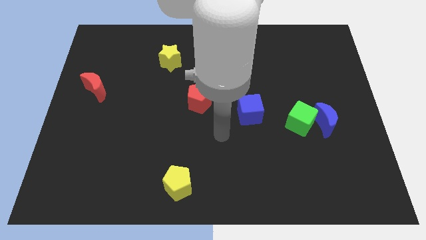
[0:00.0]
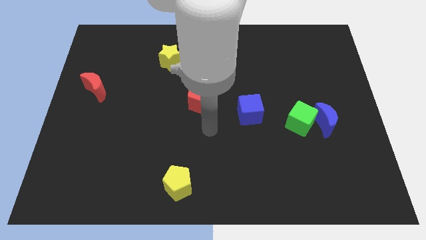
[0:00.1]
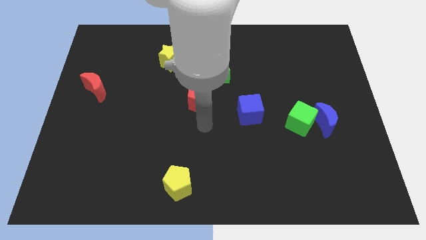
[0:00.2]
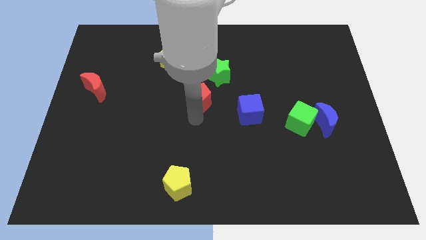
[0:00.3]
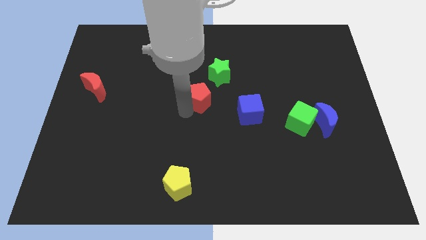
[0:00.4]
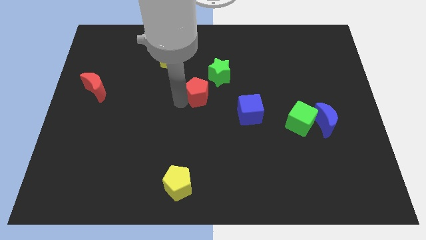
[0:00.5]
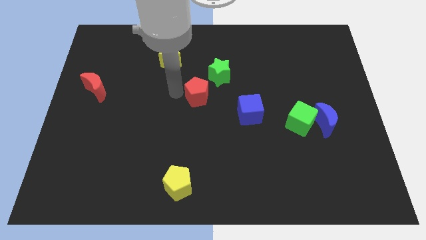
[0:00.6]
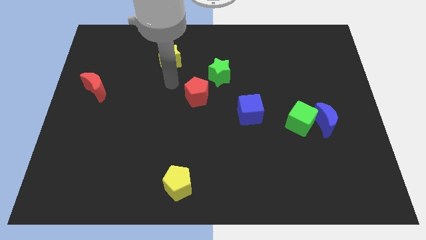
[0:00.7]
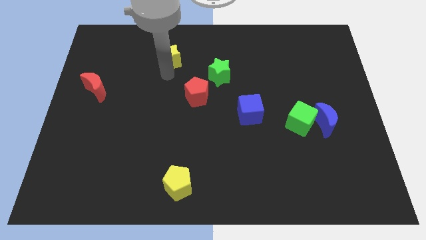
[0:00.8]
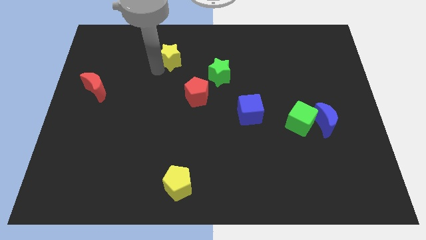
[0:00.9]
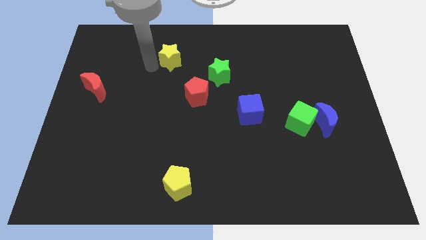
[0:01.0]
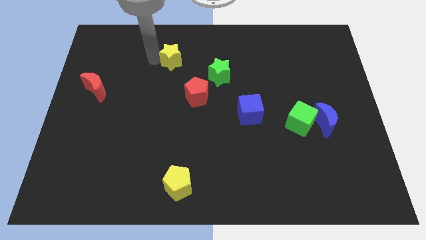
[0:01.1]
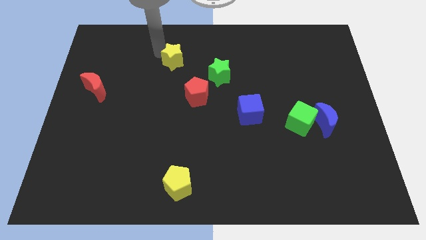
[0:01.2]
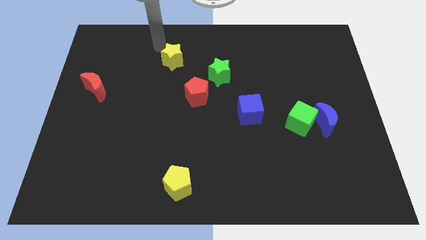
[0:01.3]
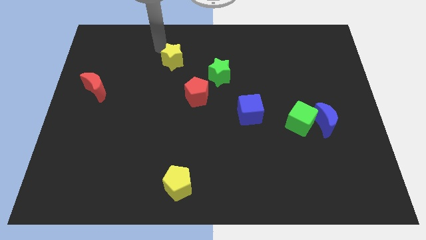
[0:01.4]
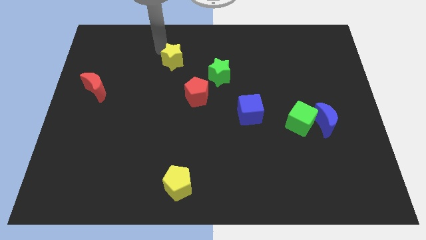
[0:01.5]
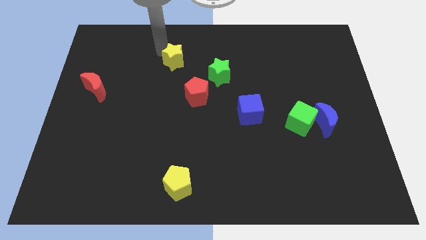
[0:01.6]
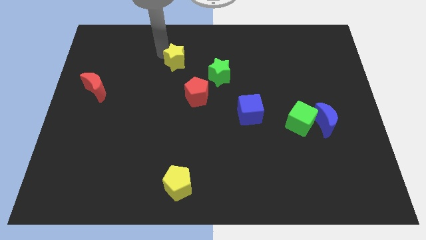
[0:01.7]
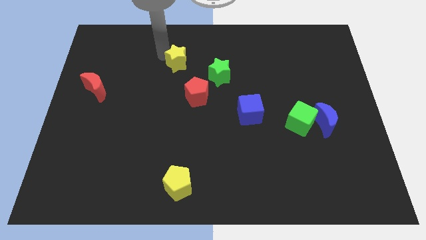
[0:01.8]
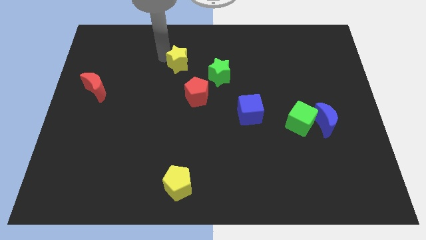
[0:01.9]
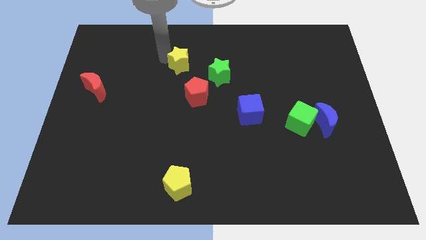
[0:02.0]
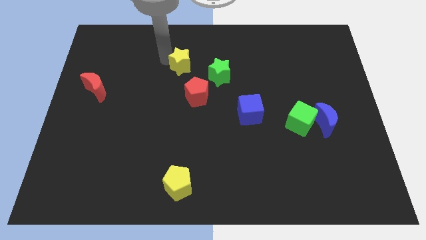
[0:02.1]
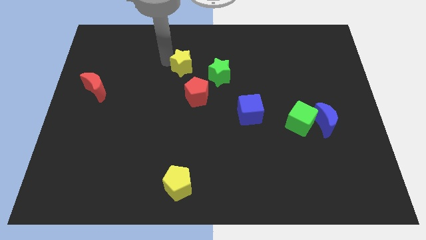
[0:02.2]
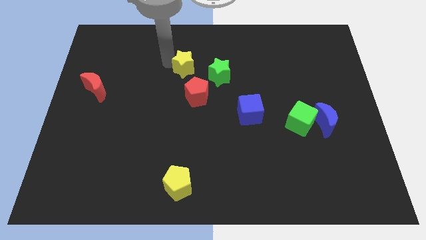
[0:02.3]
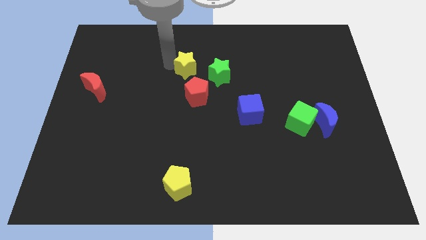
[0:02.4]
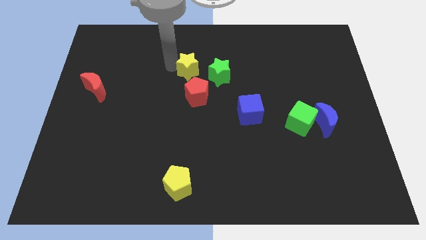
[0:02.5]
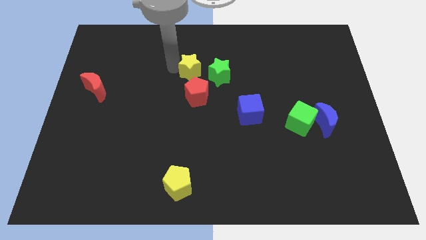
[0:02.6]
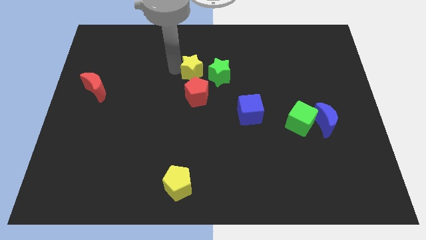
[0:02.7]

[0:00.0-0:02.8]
slightly push the yellow star downwards and then right

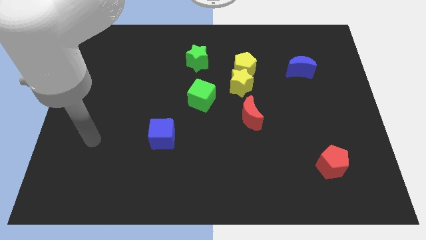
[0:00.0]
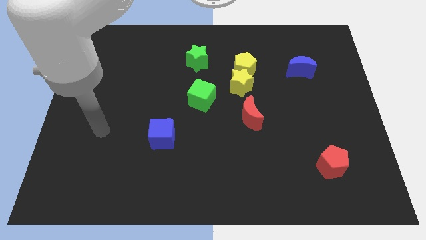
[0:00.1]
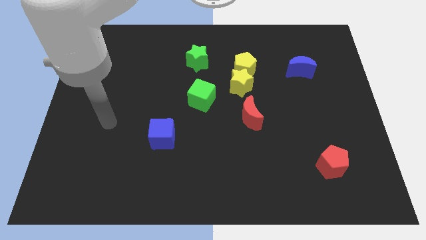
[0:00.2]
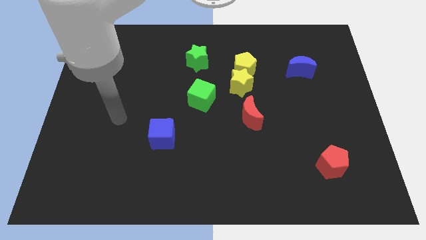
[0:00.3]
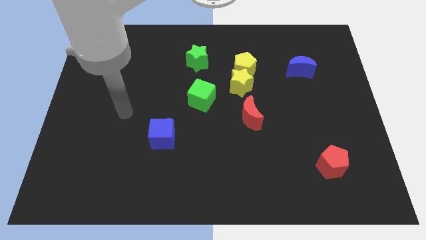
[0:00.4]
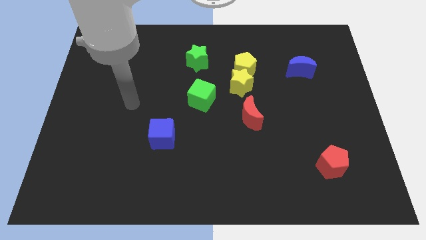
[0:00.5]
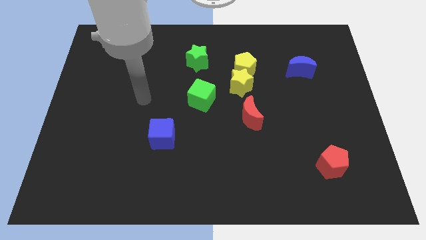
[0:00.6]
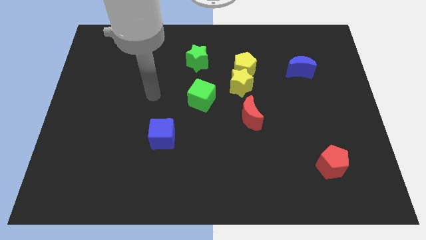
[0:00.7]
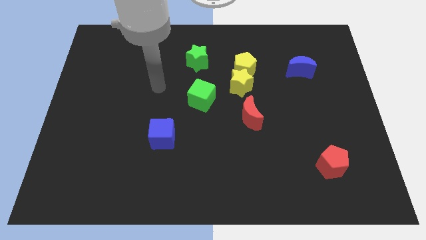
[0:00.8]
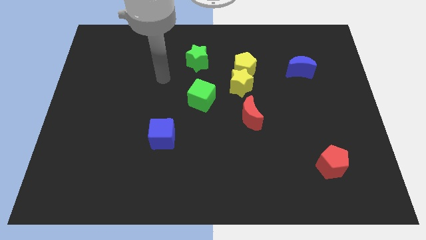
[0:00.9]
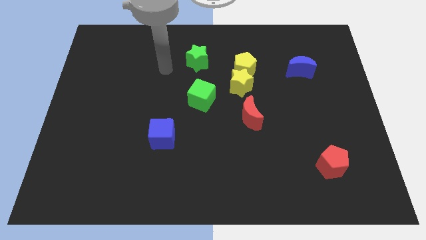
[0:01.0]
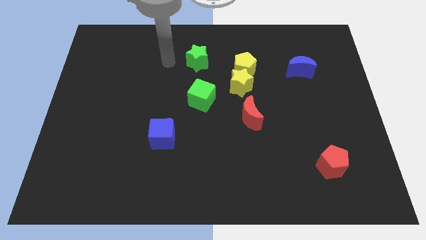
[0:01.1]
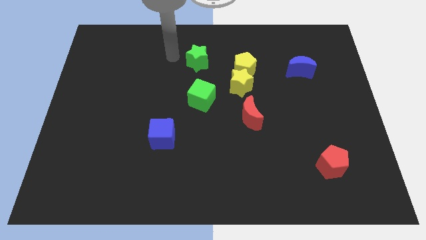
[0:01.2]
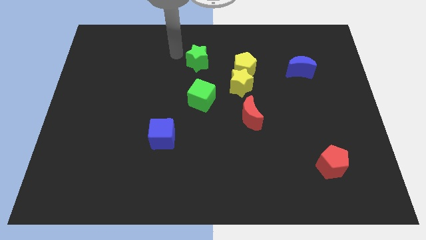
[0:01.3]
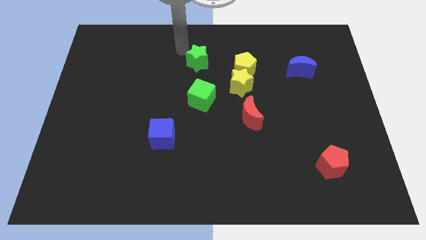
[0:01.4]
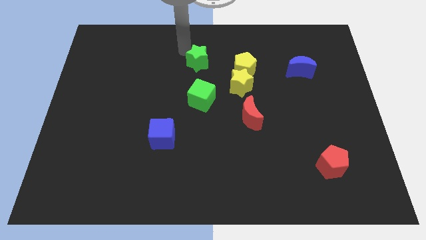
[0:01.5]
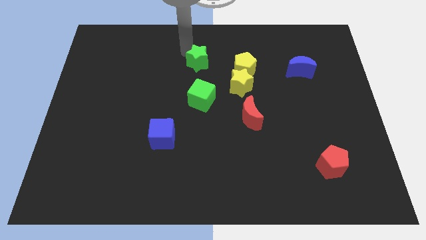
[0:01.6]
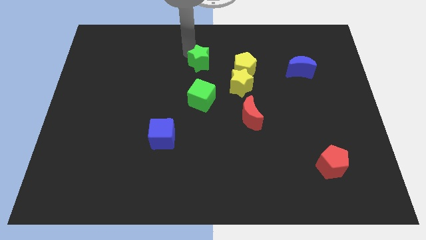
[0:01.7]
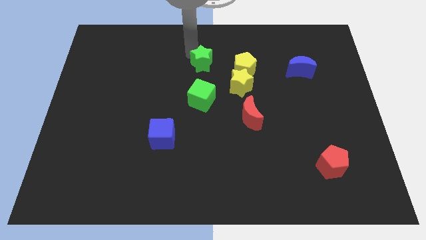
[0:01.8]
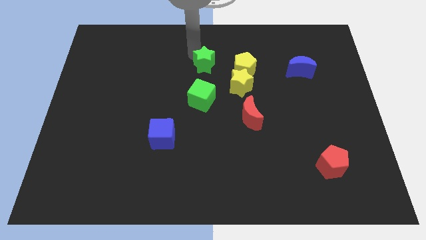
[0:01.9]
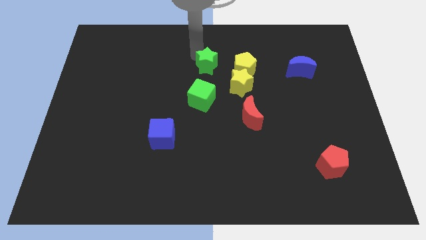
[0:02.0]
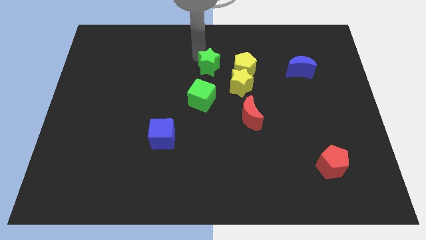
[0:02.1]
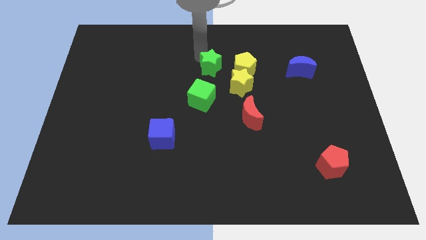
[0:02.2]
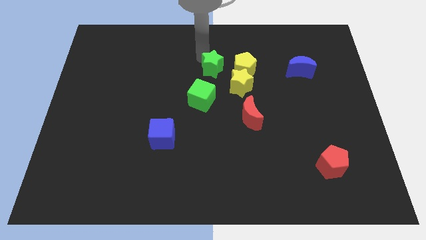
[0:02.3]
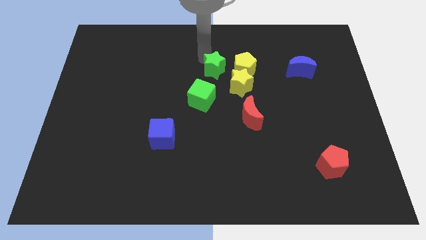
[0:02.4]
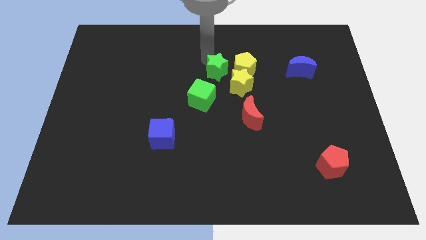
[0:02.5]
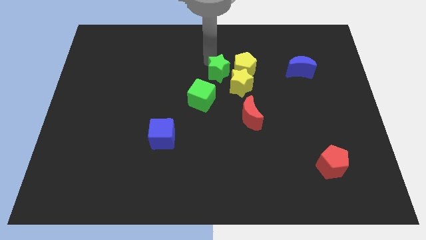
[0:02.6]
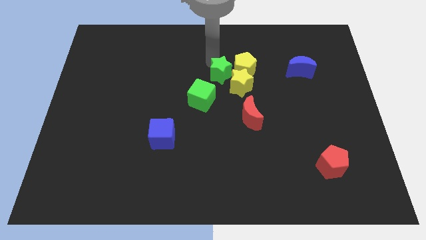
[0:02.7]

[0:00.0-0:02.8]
slightly push the green star down and right diagonally

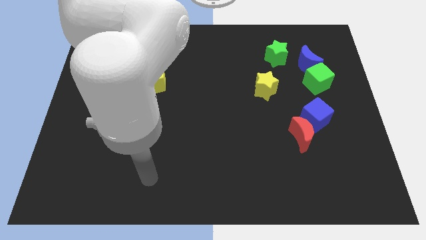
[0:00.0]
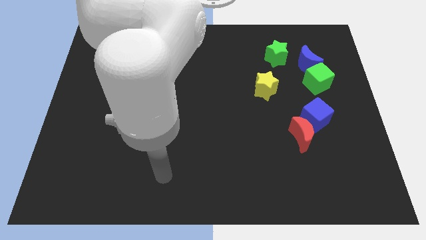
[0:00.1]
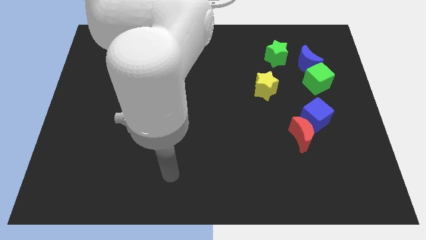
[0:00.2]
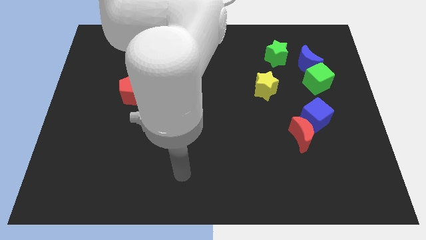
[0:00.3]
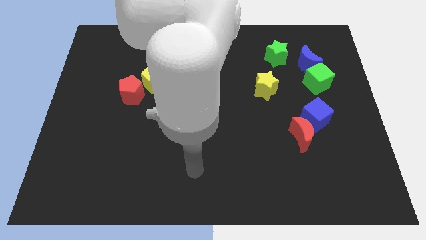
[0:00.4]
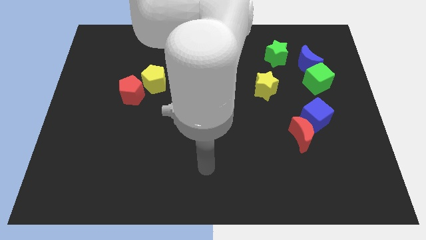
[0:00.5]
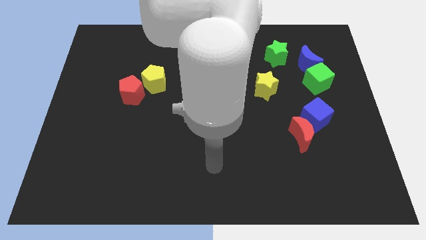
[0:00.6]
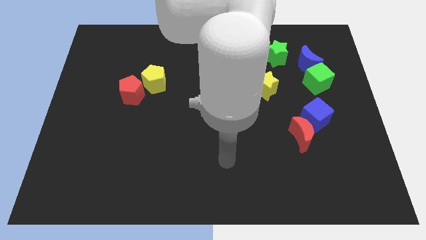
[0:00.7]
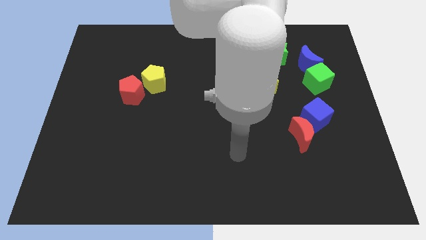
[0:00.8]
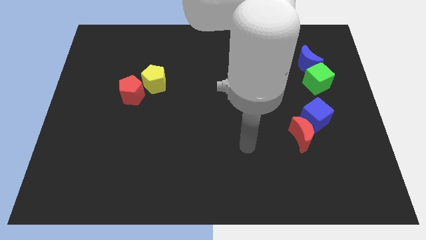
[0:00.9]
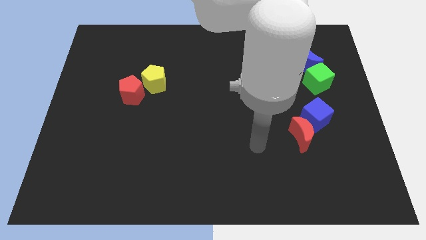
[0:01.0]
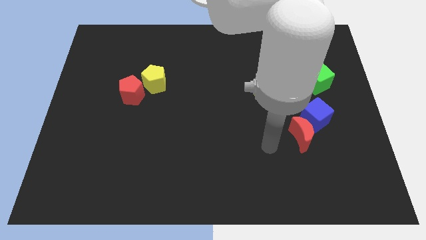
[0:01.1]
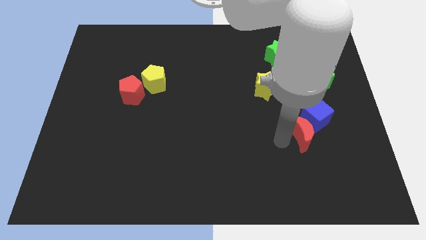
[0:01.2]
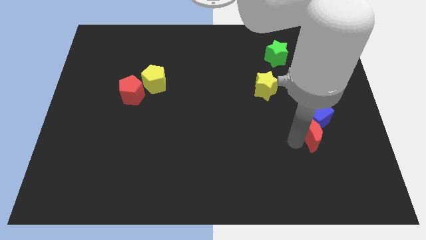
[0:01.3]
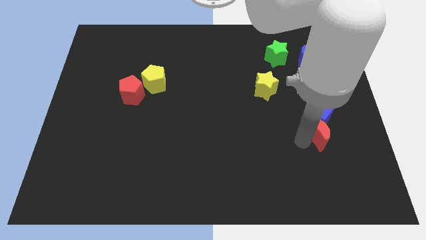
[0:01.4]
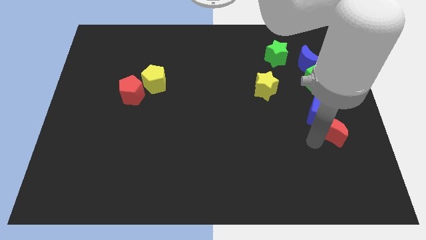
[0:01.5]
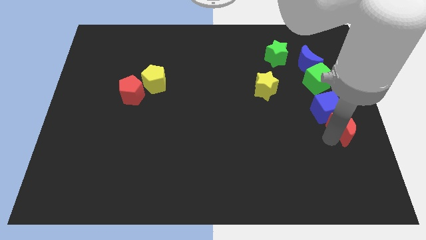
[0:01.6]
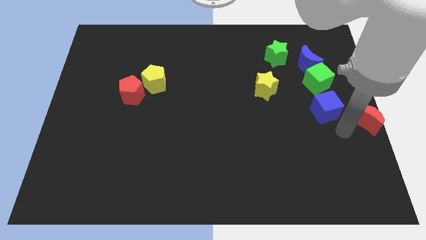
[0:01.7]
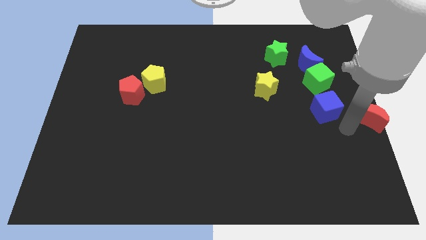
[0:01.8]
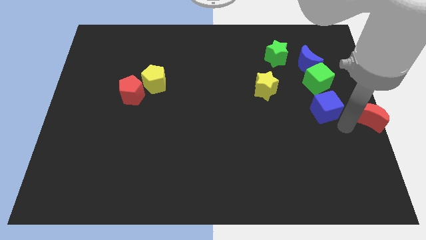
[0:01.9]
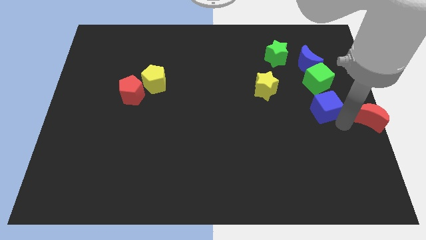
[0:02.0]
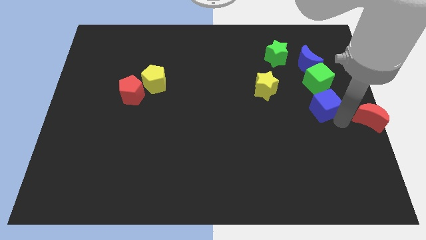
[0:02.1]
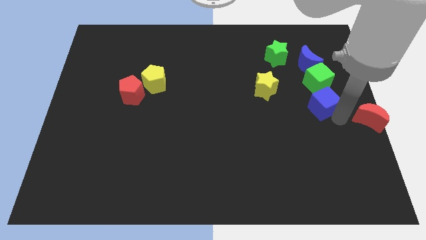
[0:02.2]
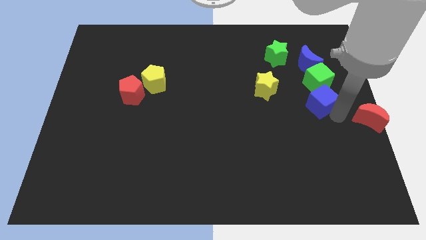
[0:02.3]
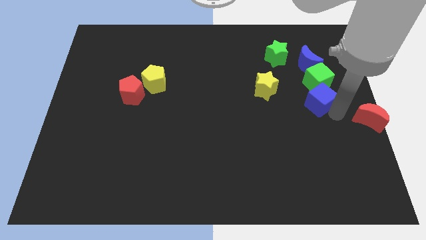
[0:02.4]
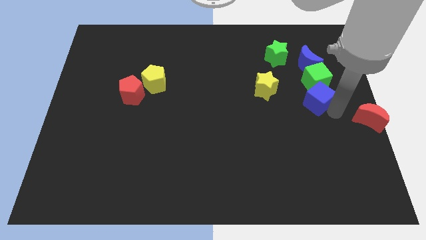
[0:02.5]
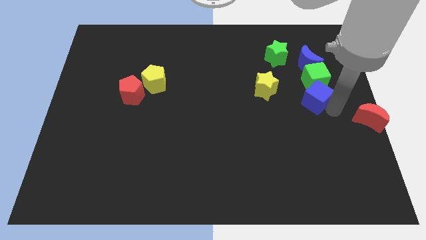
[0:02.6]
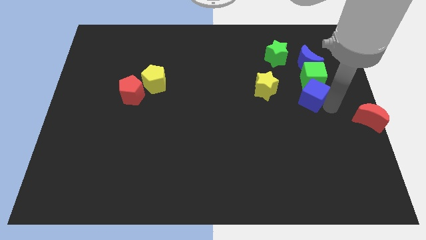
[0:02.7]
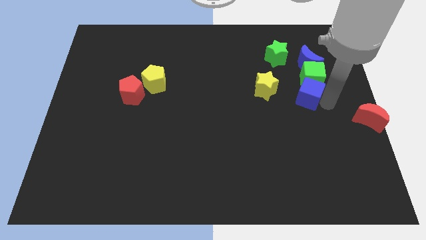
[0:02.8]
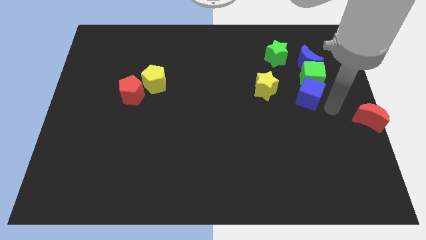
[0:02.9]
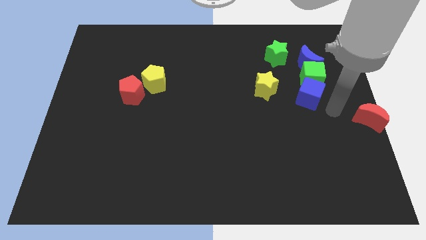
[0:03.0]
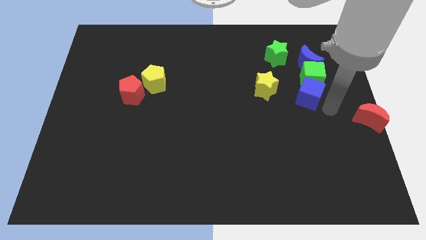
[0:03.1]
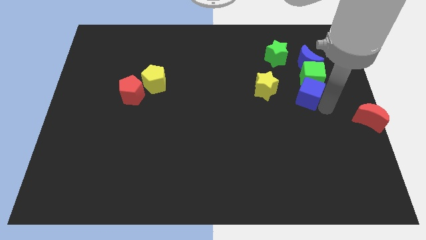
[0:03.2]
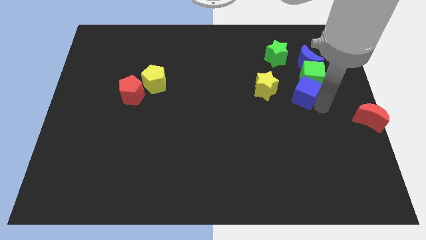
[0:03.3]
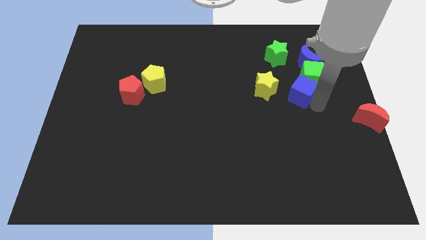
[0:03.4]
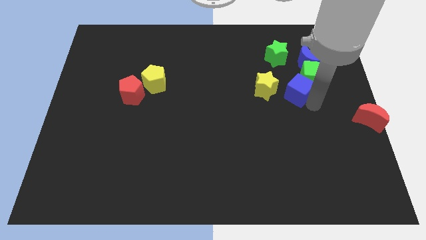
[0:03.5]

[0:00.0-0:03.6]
slide the blue cube a bit upwards and left diagonally
